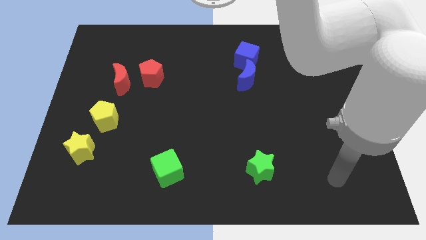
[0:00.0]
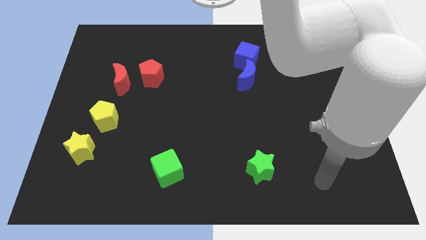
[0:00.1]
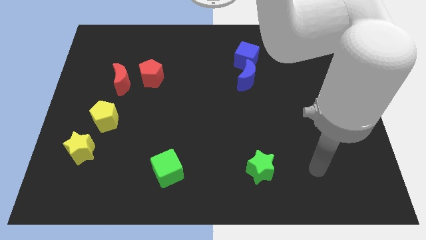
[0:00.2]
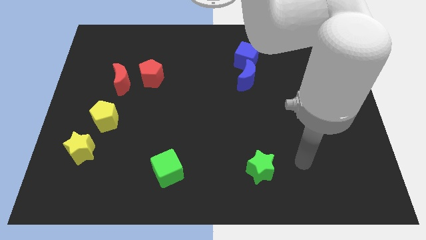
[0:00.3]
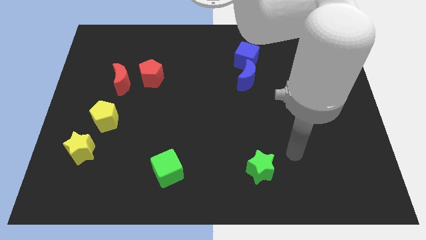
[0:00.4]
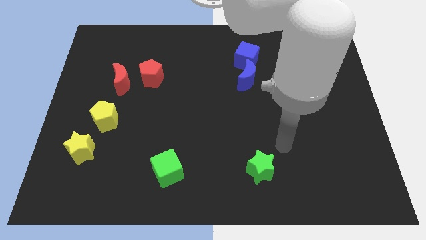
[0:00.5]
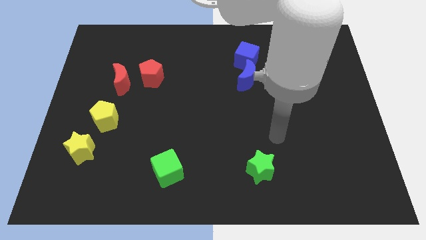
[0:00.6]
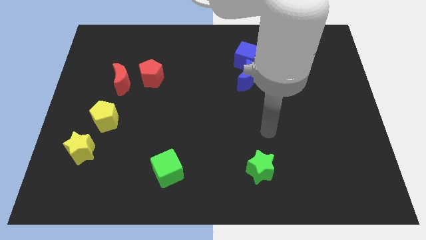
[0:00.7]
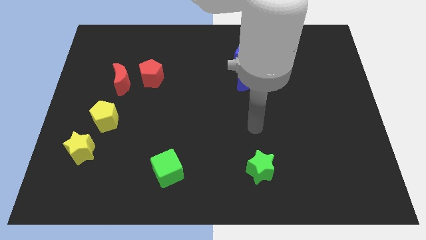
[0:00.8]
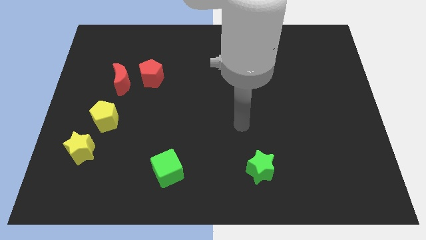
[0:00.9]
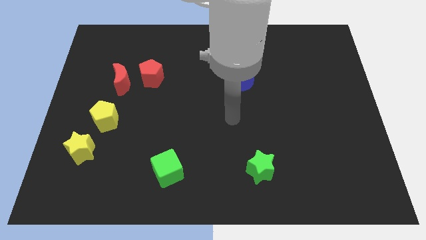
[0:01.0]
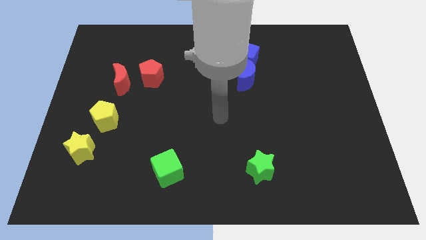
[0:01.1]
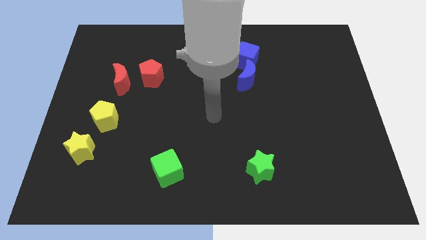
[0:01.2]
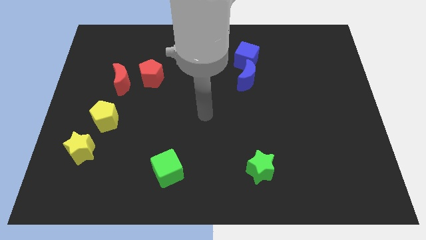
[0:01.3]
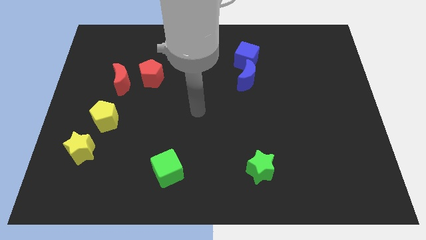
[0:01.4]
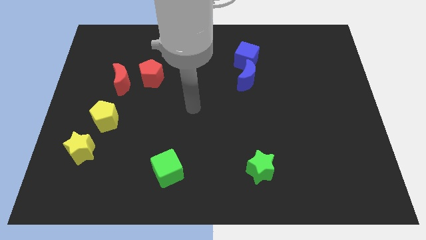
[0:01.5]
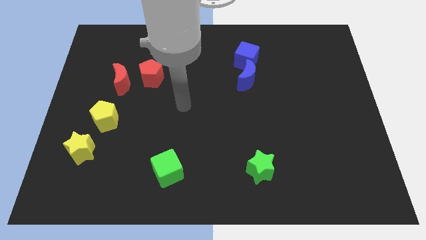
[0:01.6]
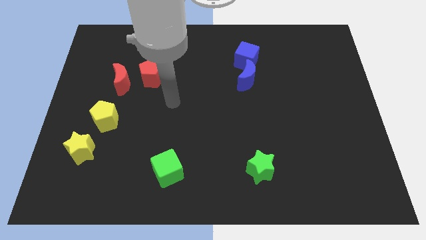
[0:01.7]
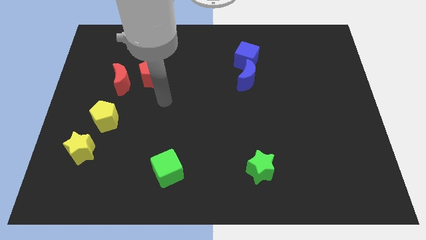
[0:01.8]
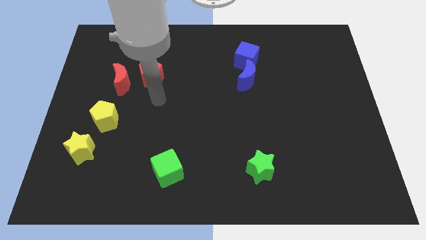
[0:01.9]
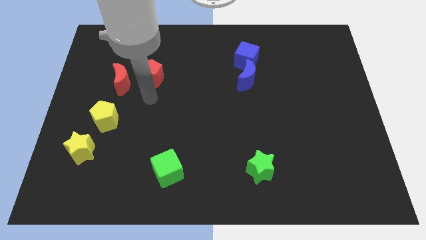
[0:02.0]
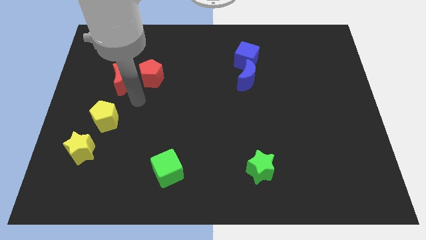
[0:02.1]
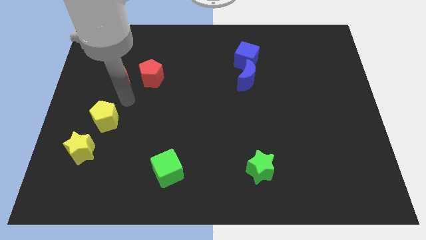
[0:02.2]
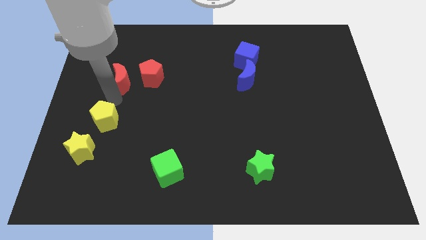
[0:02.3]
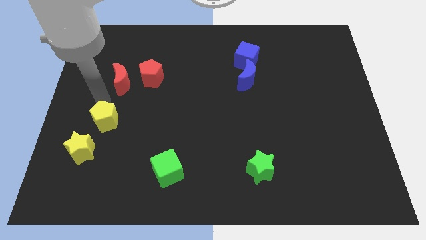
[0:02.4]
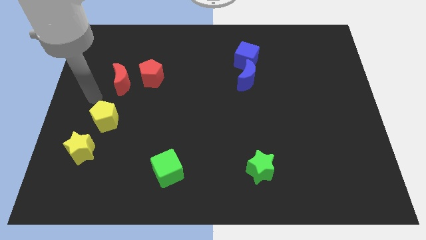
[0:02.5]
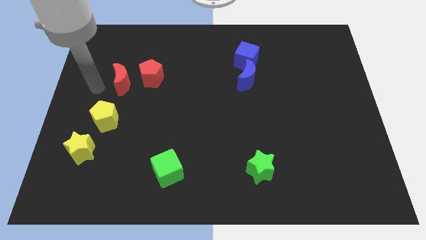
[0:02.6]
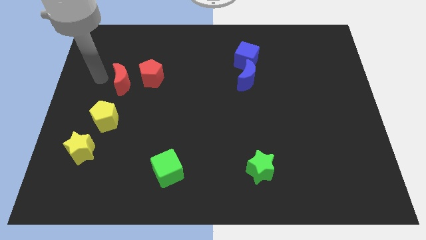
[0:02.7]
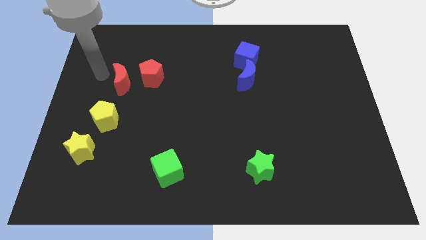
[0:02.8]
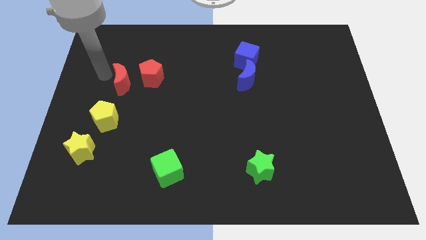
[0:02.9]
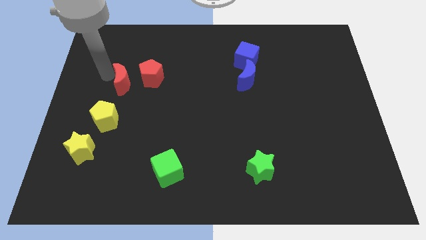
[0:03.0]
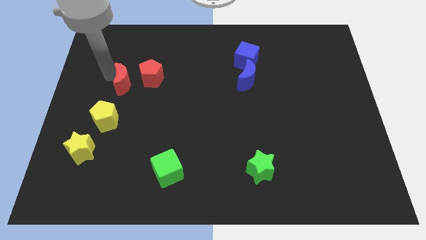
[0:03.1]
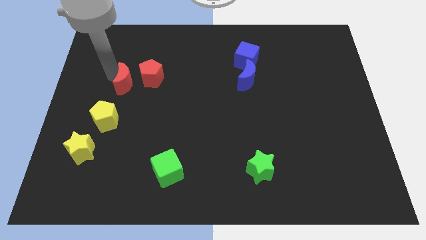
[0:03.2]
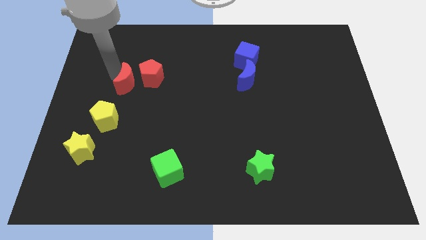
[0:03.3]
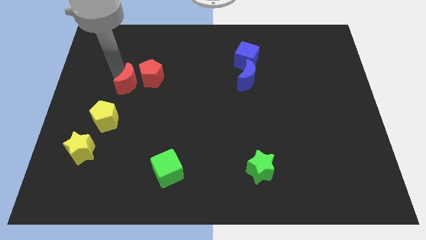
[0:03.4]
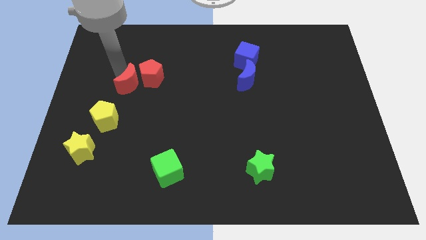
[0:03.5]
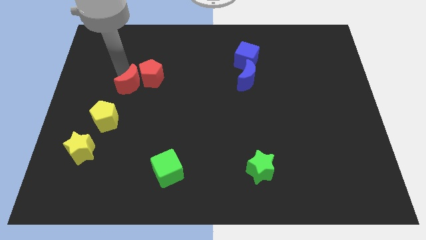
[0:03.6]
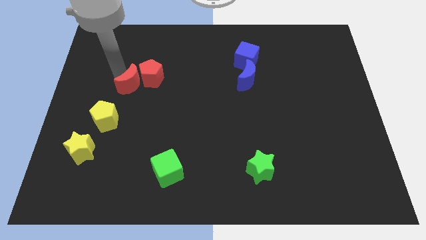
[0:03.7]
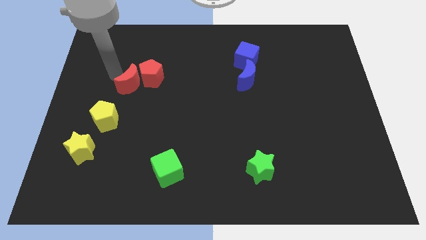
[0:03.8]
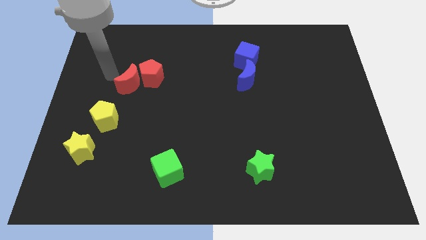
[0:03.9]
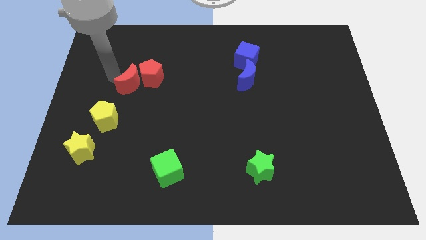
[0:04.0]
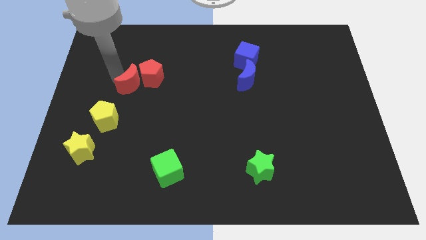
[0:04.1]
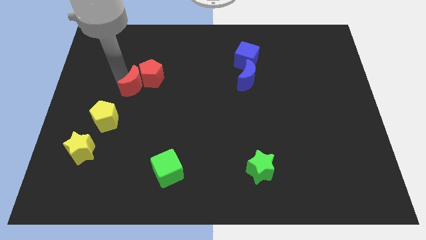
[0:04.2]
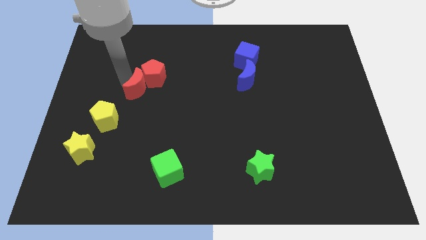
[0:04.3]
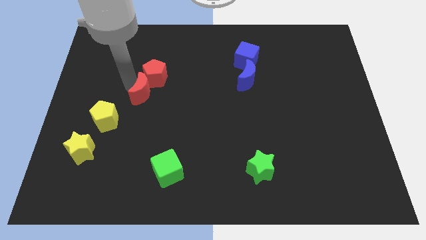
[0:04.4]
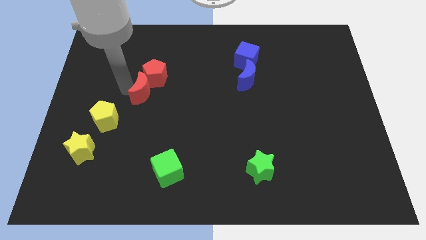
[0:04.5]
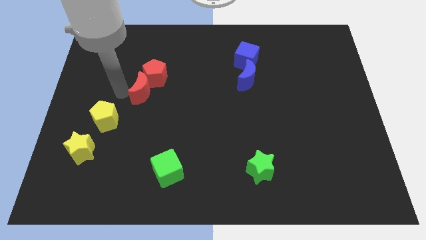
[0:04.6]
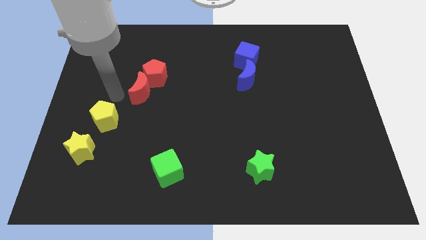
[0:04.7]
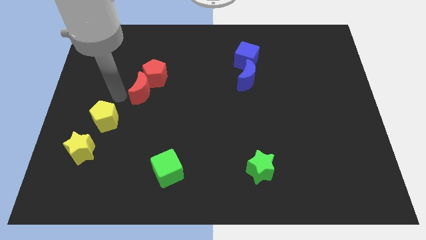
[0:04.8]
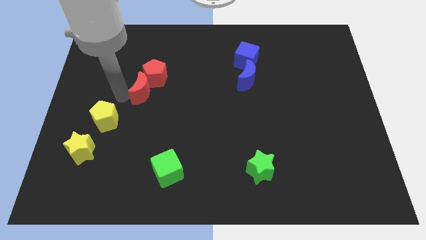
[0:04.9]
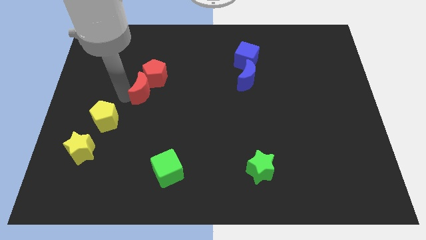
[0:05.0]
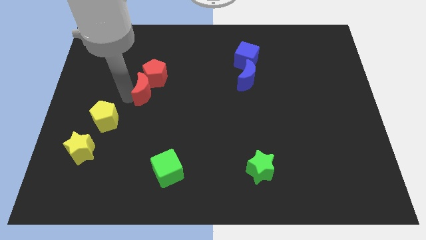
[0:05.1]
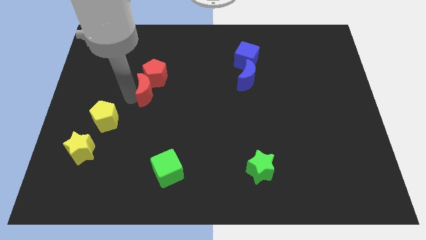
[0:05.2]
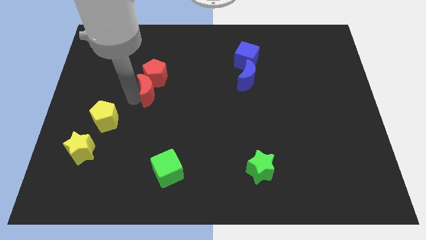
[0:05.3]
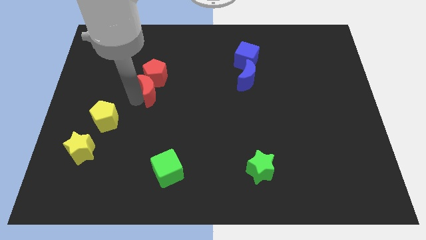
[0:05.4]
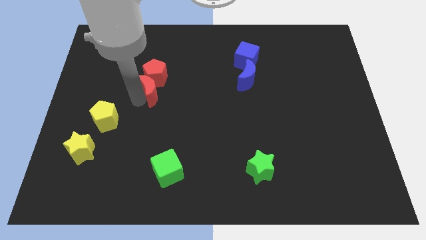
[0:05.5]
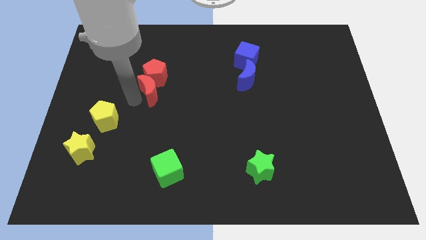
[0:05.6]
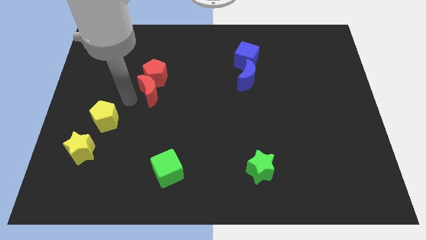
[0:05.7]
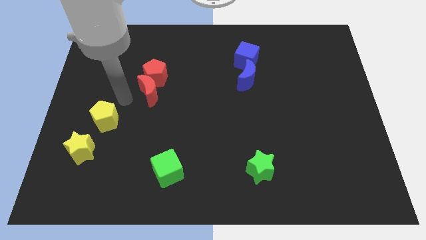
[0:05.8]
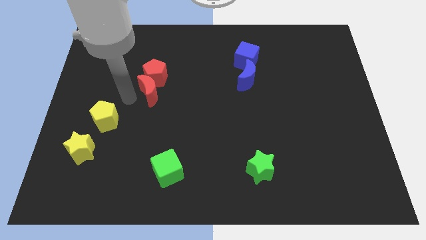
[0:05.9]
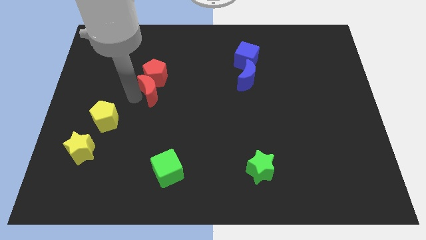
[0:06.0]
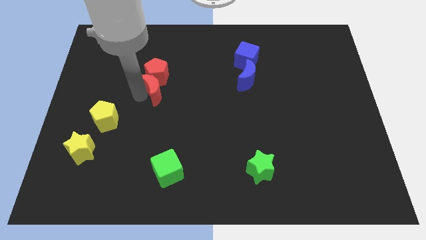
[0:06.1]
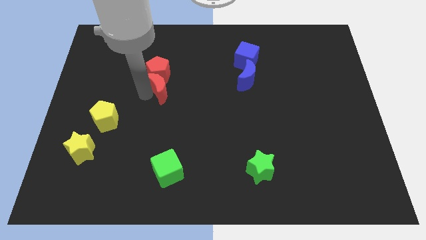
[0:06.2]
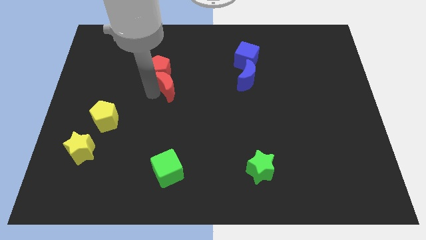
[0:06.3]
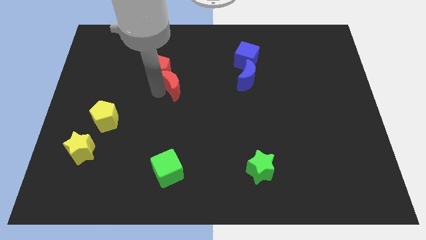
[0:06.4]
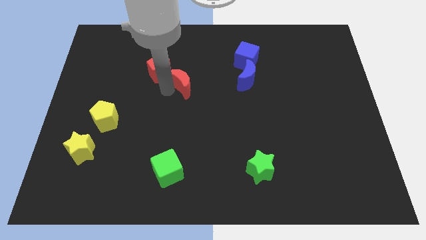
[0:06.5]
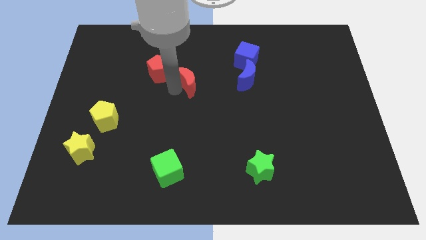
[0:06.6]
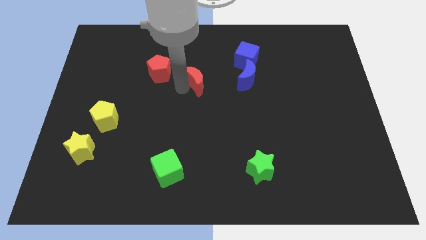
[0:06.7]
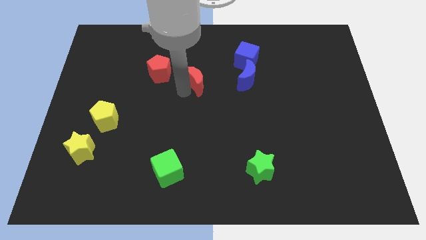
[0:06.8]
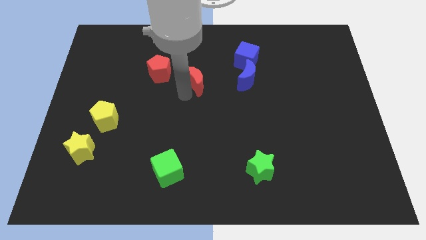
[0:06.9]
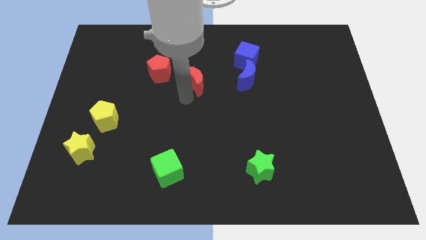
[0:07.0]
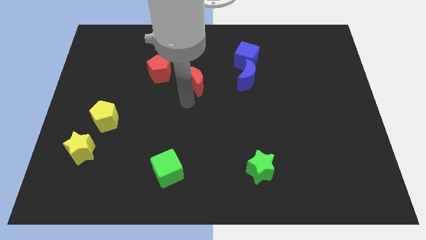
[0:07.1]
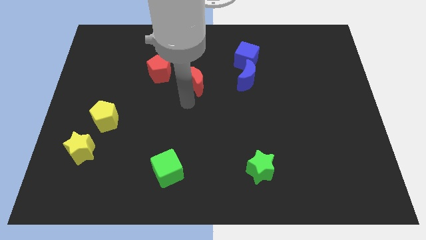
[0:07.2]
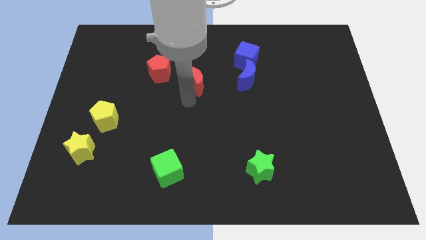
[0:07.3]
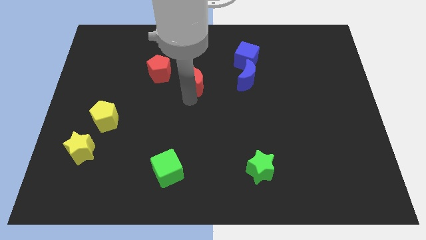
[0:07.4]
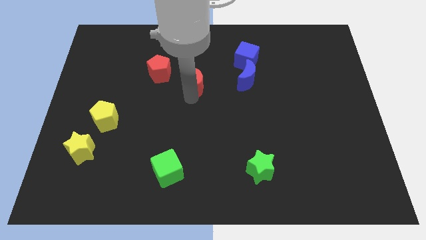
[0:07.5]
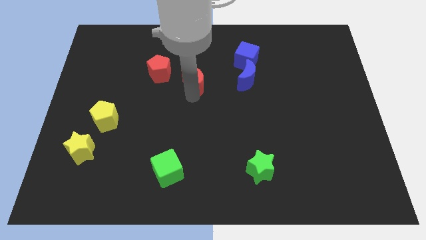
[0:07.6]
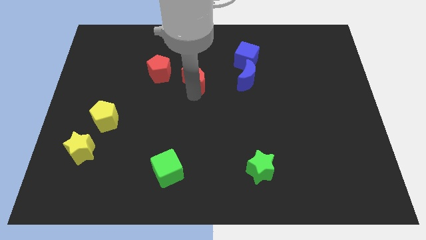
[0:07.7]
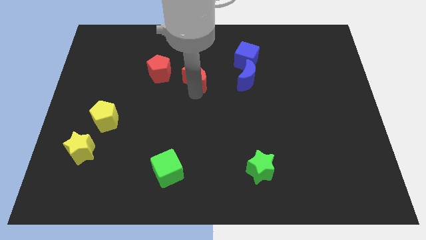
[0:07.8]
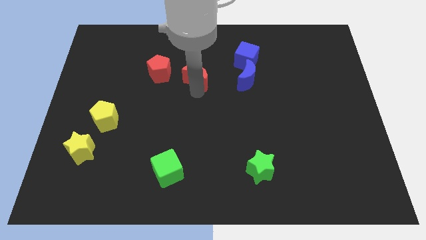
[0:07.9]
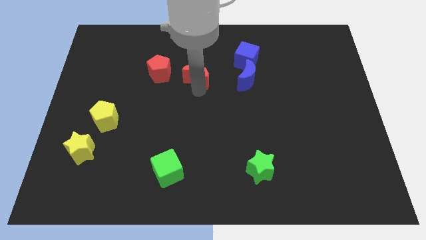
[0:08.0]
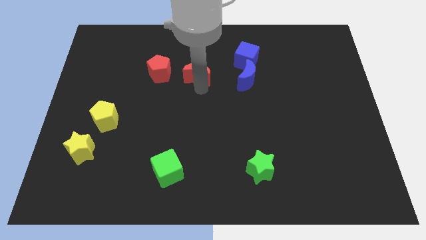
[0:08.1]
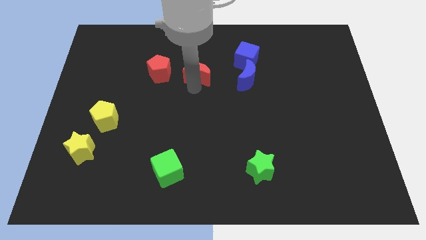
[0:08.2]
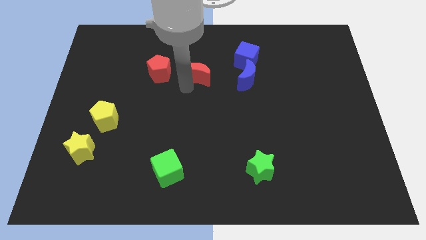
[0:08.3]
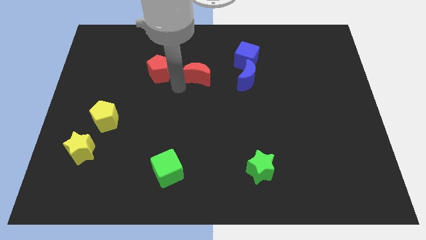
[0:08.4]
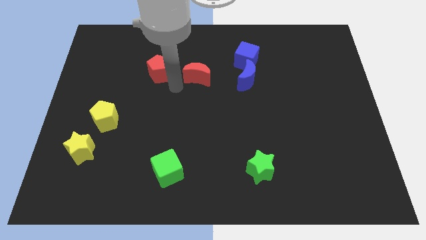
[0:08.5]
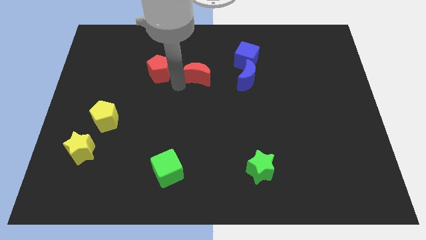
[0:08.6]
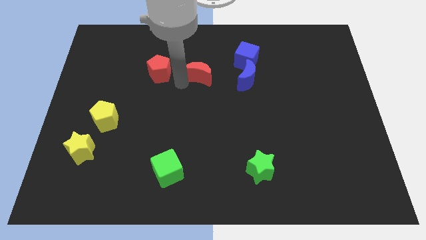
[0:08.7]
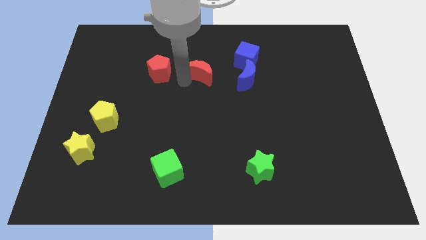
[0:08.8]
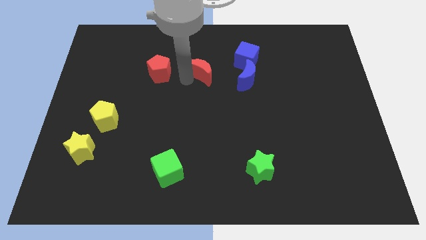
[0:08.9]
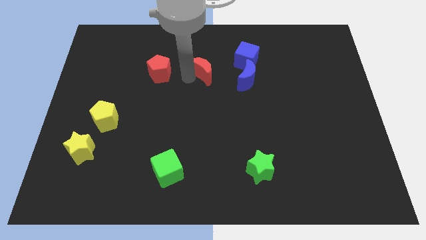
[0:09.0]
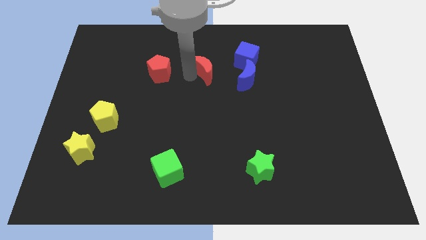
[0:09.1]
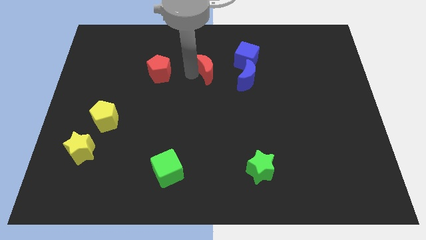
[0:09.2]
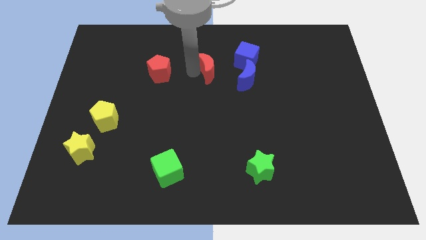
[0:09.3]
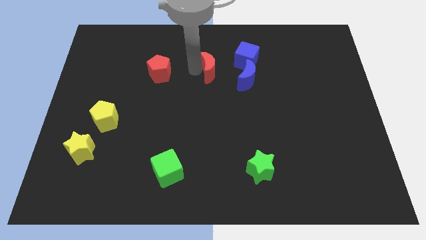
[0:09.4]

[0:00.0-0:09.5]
push the red moon diagonally up and to the left of the blue moon
